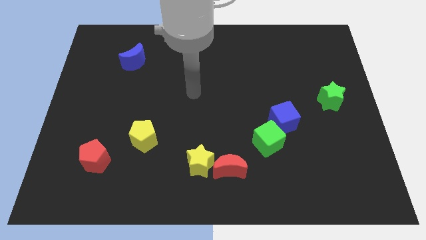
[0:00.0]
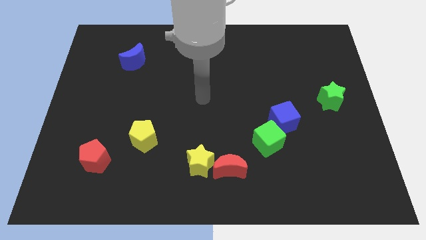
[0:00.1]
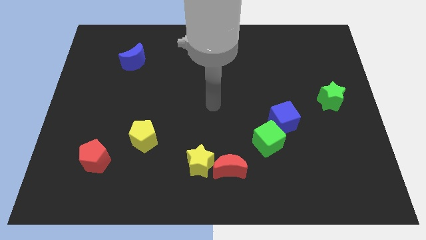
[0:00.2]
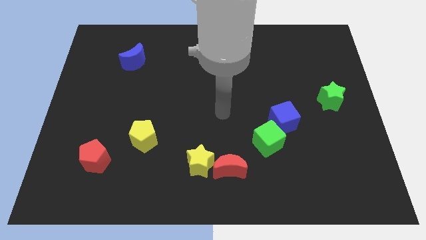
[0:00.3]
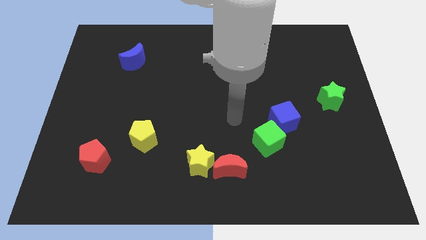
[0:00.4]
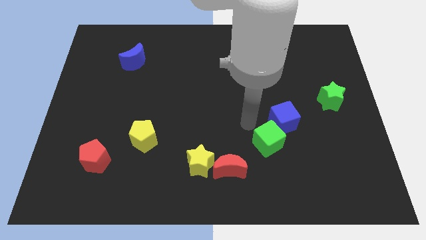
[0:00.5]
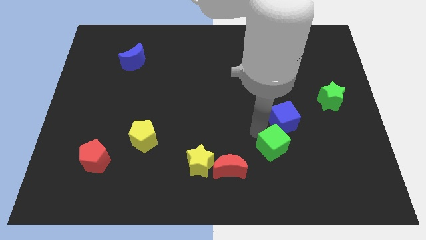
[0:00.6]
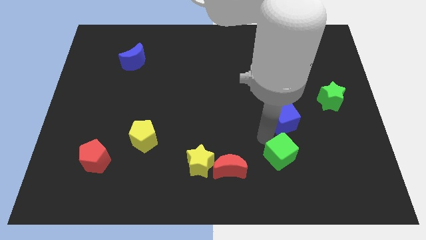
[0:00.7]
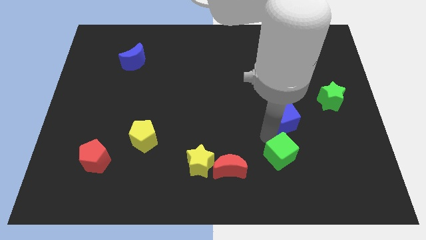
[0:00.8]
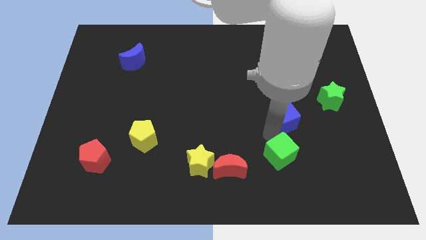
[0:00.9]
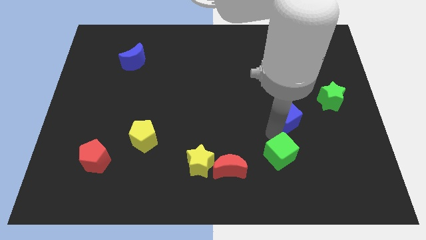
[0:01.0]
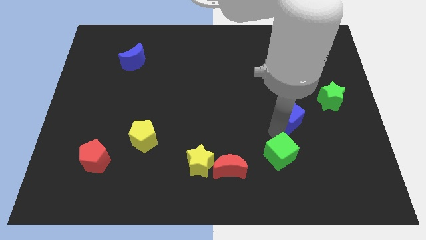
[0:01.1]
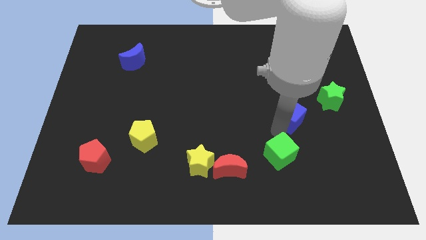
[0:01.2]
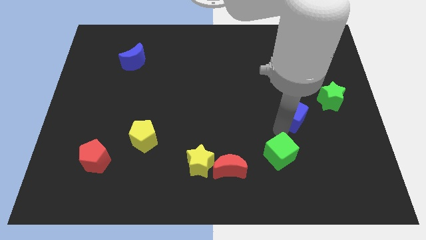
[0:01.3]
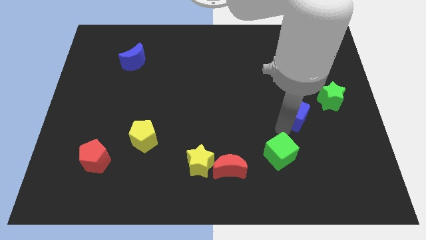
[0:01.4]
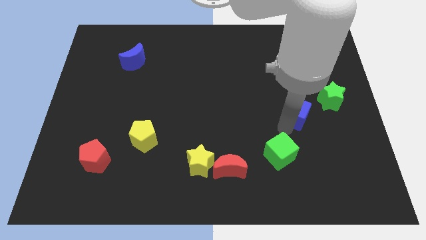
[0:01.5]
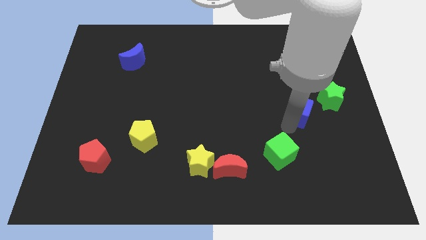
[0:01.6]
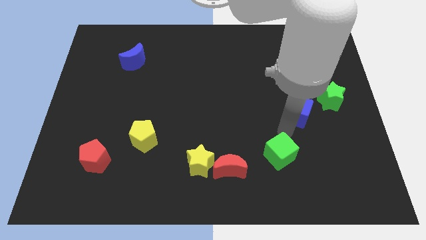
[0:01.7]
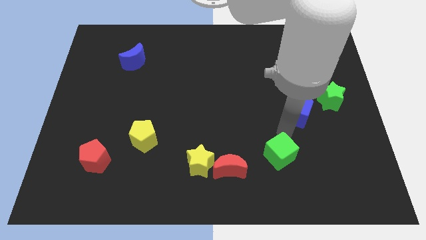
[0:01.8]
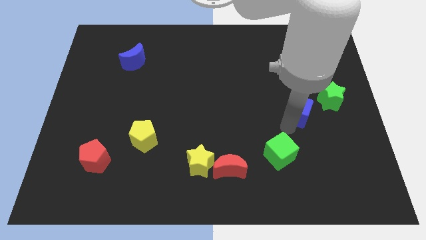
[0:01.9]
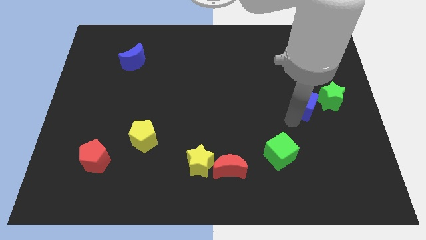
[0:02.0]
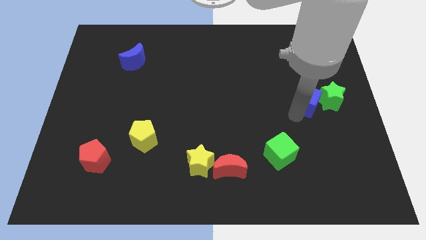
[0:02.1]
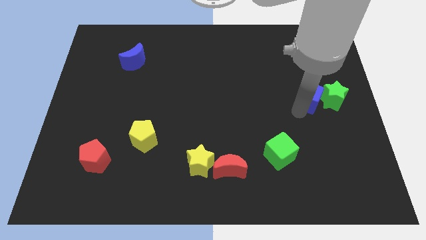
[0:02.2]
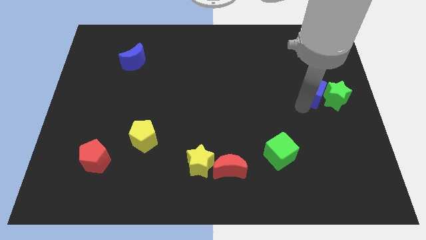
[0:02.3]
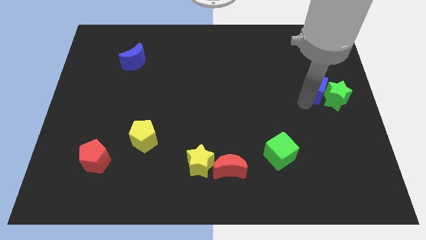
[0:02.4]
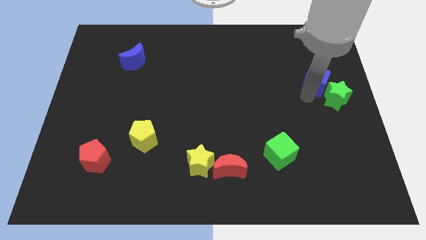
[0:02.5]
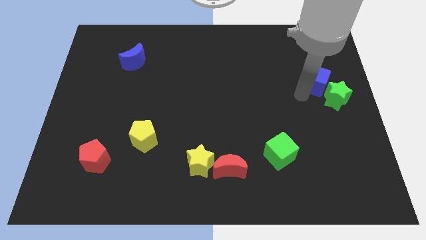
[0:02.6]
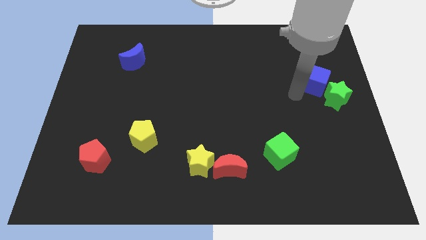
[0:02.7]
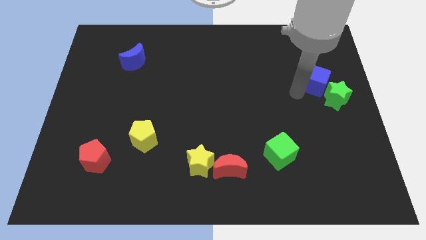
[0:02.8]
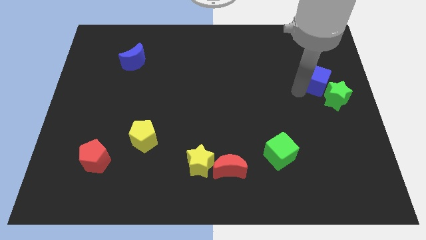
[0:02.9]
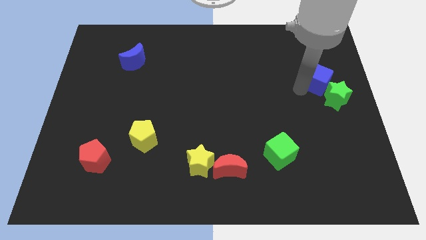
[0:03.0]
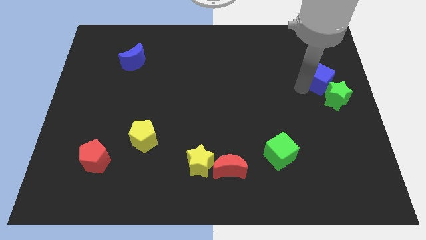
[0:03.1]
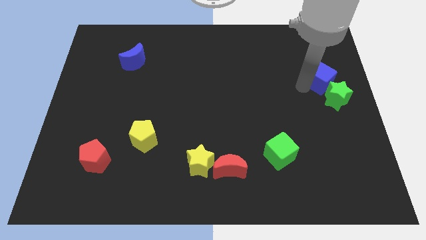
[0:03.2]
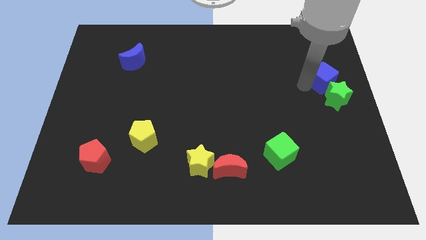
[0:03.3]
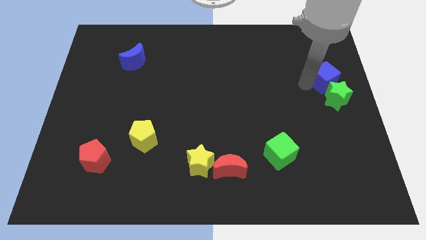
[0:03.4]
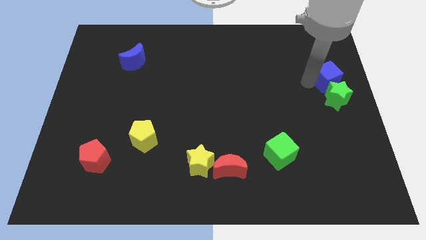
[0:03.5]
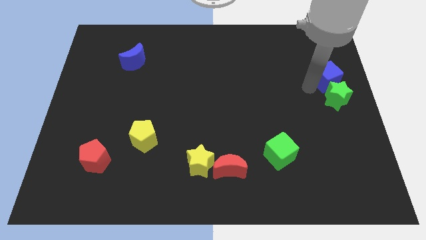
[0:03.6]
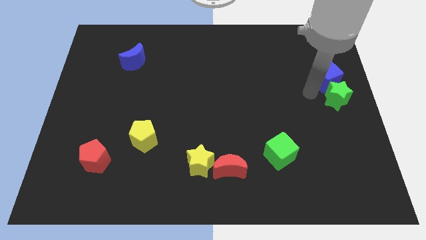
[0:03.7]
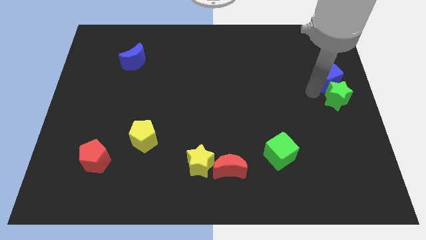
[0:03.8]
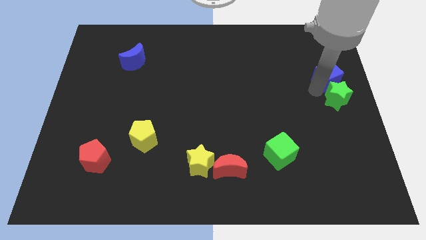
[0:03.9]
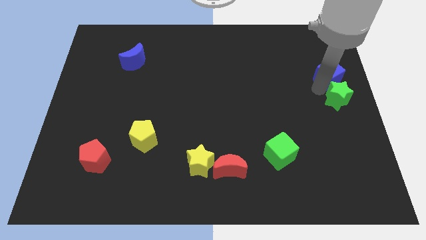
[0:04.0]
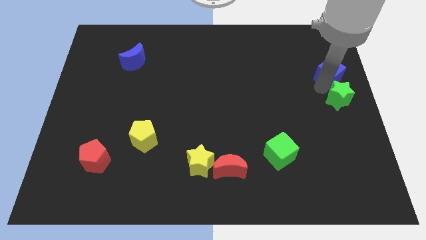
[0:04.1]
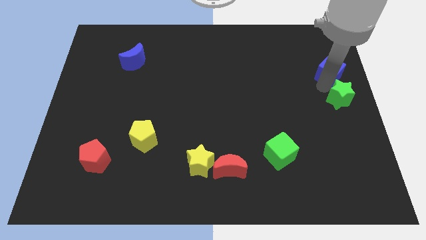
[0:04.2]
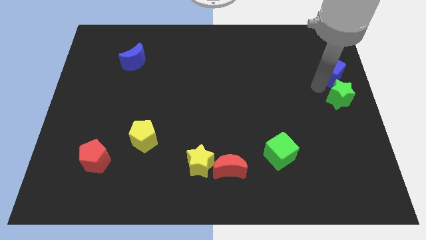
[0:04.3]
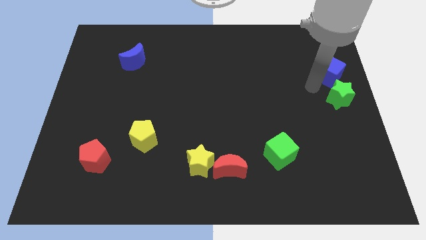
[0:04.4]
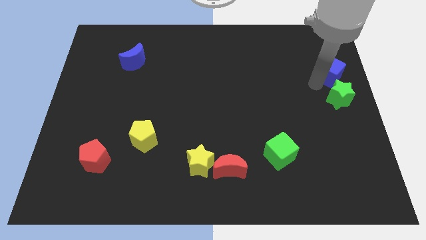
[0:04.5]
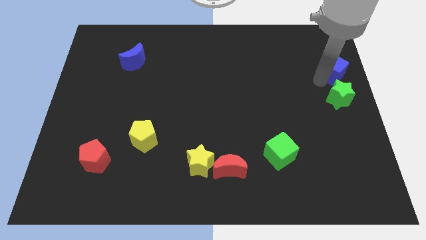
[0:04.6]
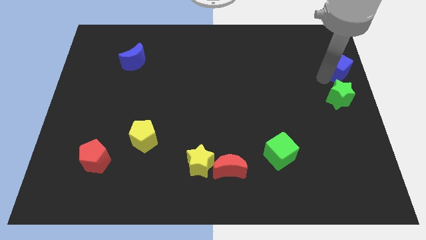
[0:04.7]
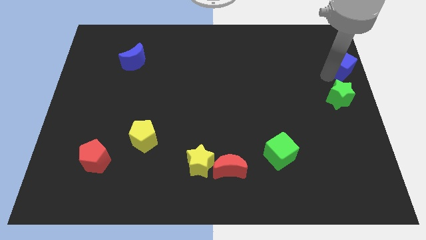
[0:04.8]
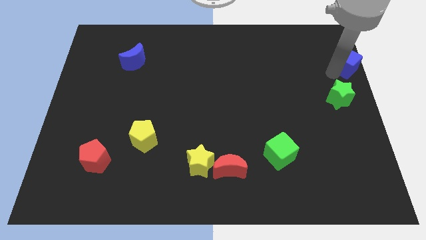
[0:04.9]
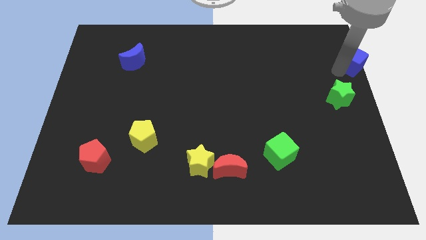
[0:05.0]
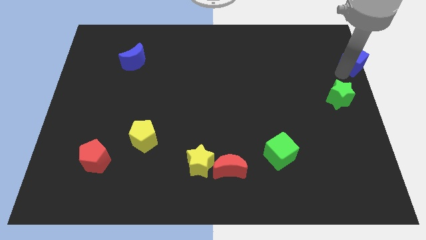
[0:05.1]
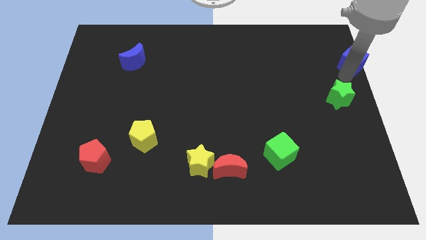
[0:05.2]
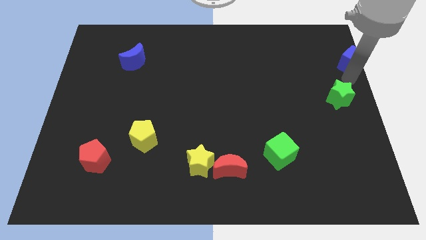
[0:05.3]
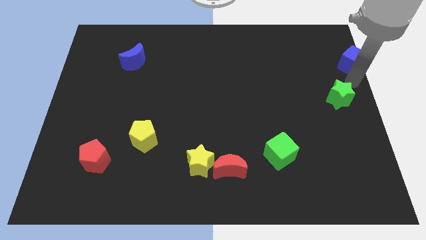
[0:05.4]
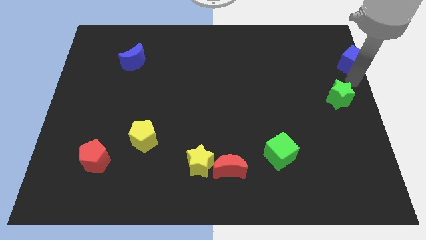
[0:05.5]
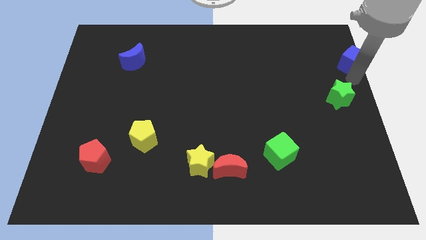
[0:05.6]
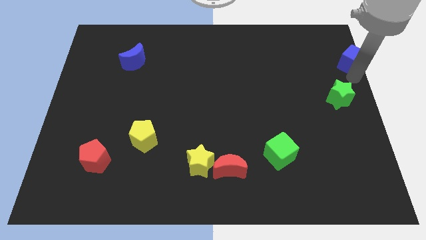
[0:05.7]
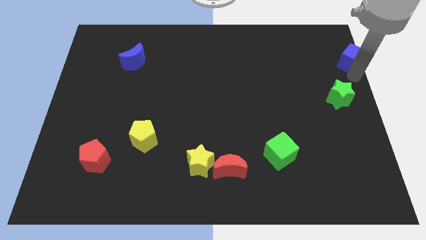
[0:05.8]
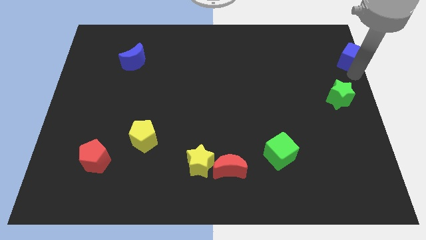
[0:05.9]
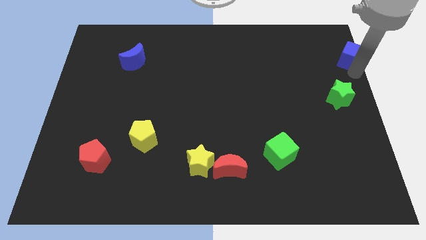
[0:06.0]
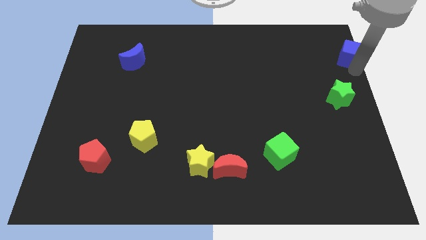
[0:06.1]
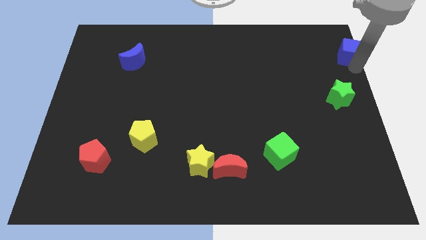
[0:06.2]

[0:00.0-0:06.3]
put the blue cube to the upper right corner
